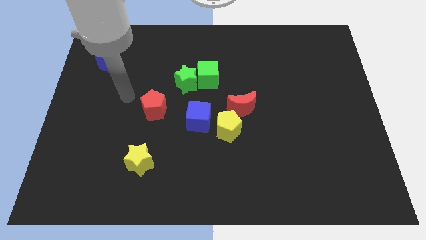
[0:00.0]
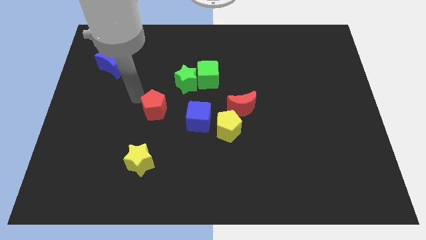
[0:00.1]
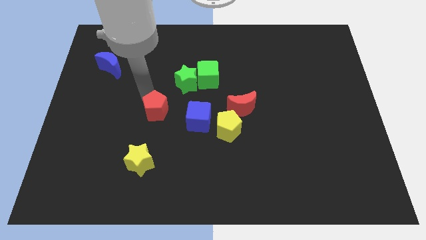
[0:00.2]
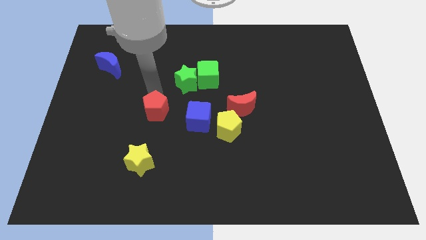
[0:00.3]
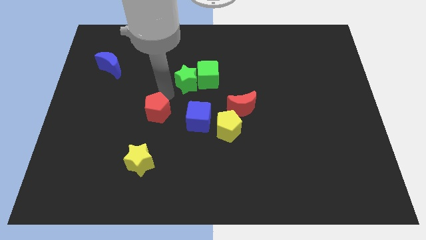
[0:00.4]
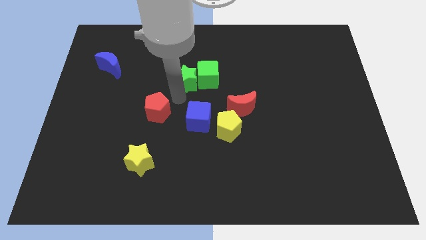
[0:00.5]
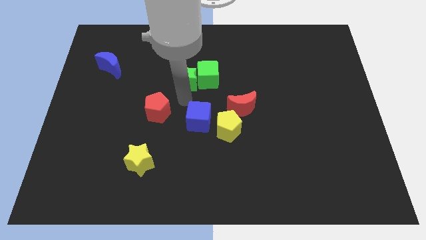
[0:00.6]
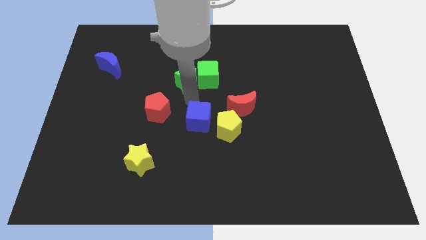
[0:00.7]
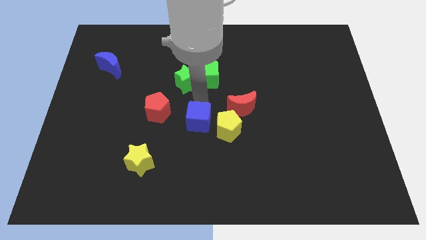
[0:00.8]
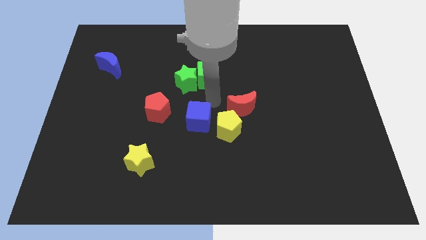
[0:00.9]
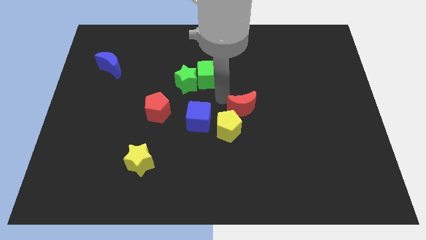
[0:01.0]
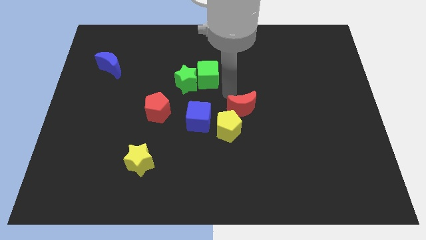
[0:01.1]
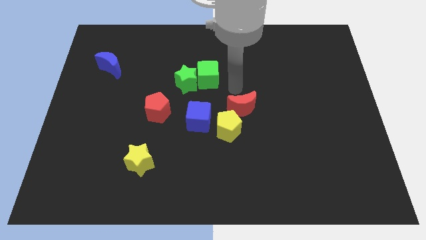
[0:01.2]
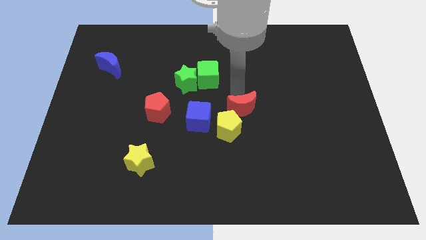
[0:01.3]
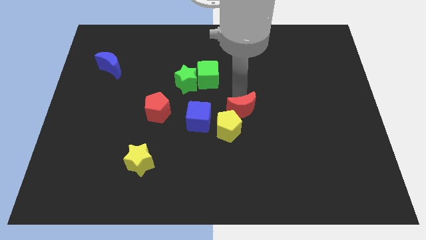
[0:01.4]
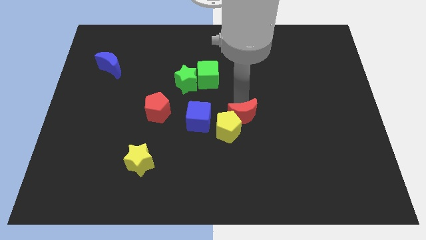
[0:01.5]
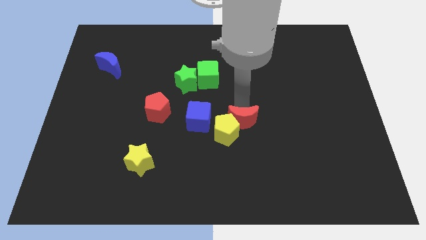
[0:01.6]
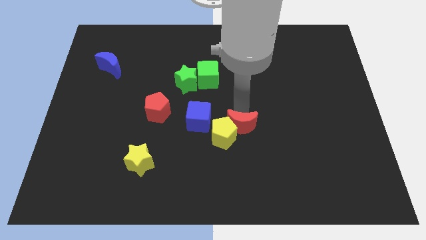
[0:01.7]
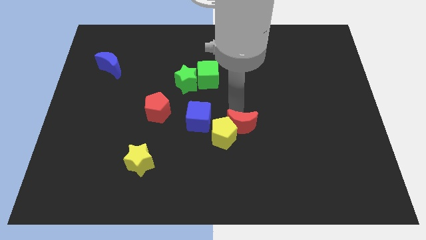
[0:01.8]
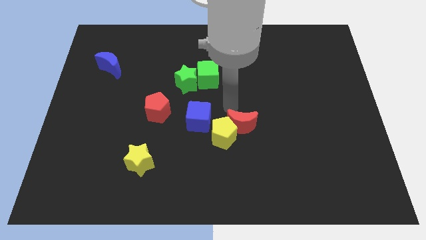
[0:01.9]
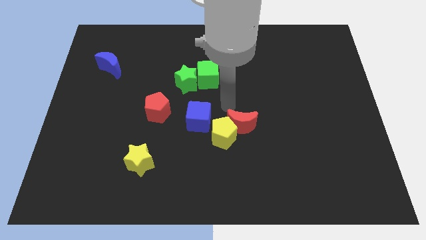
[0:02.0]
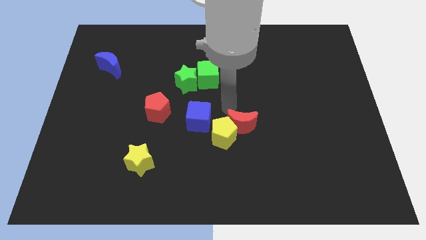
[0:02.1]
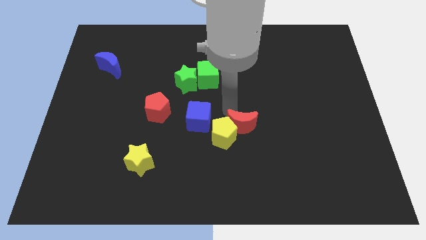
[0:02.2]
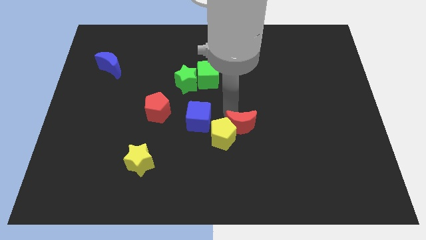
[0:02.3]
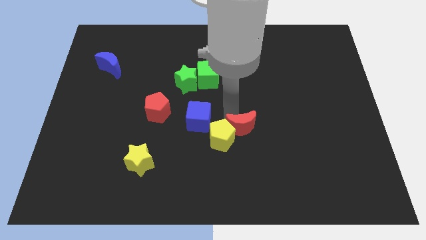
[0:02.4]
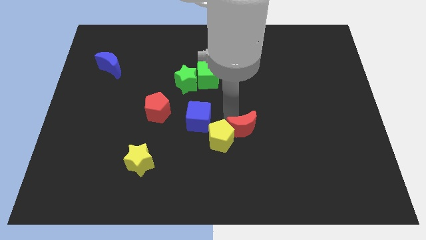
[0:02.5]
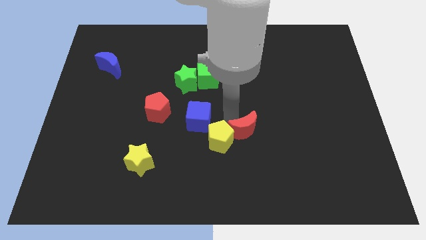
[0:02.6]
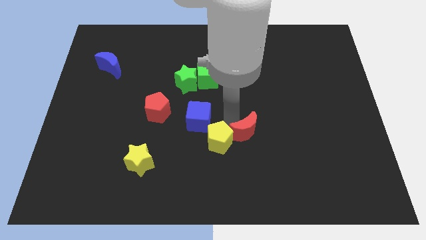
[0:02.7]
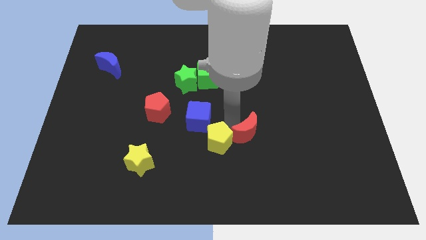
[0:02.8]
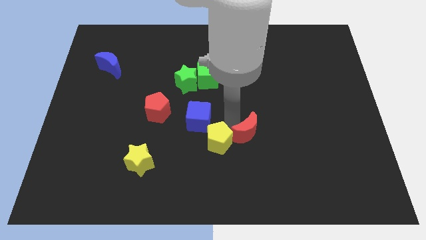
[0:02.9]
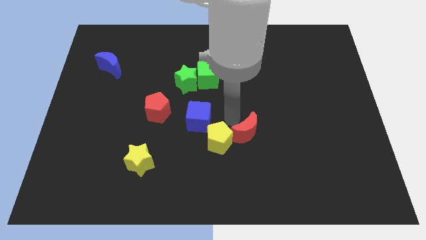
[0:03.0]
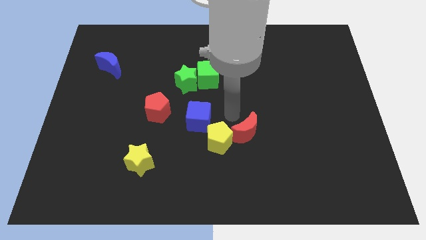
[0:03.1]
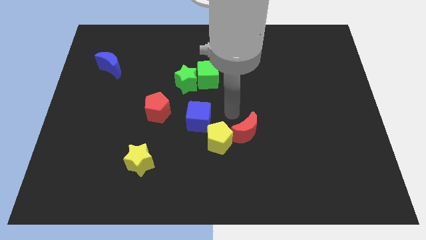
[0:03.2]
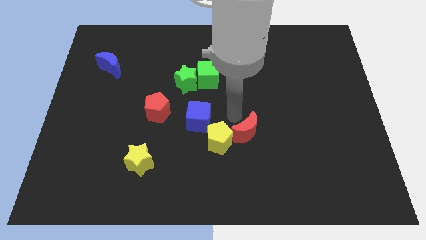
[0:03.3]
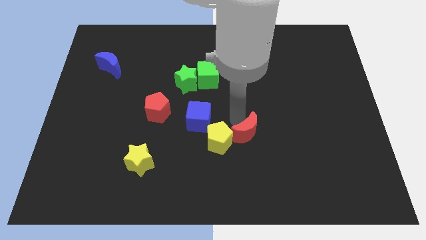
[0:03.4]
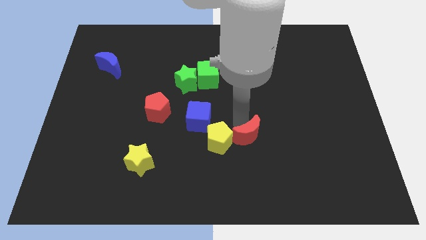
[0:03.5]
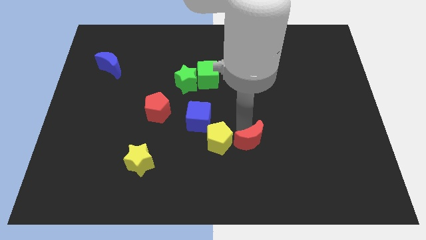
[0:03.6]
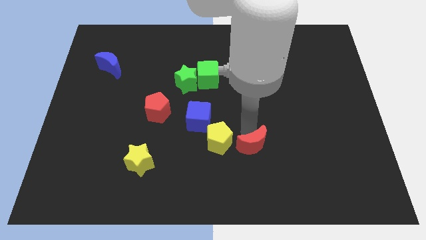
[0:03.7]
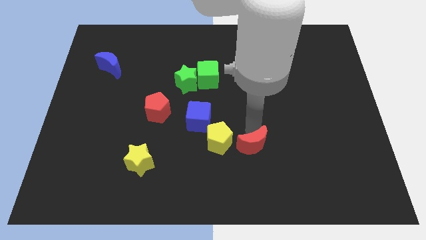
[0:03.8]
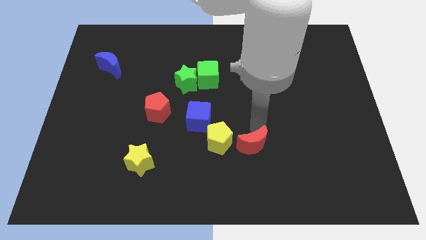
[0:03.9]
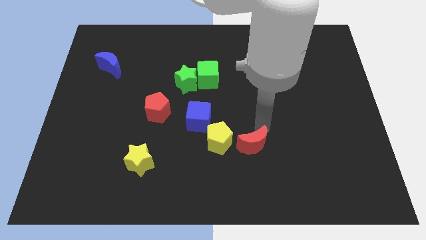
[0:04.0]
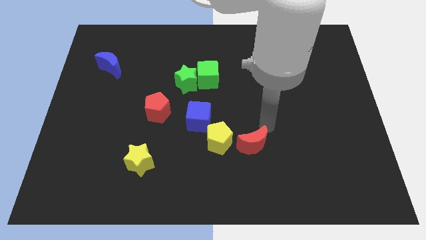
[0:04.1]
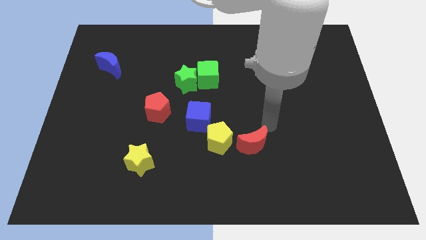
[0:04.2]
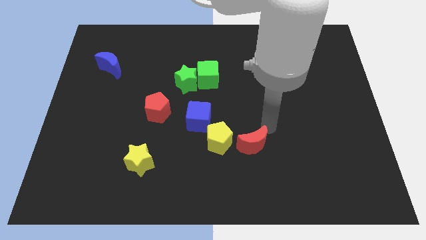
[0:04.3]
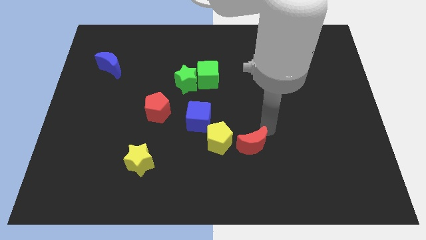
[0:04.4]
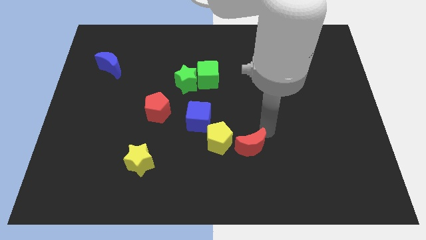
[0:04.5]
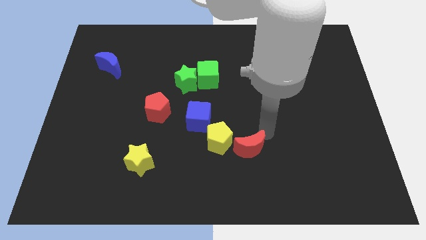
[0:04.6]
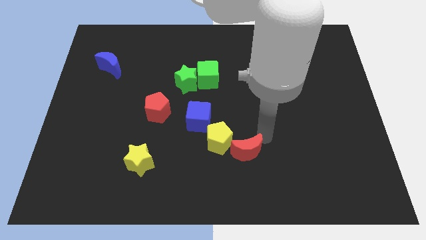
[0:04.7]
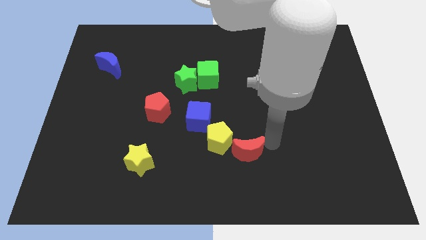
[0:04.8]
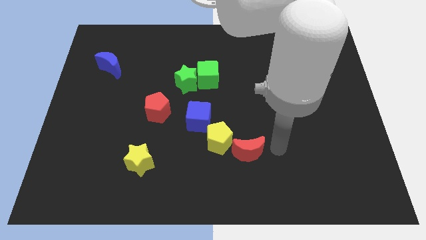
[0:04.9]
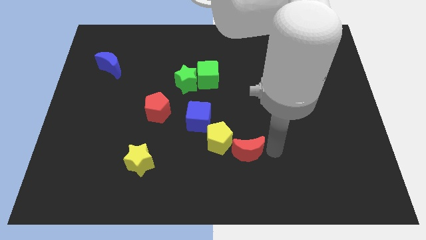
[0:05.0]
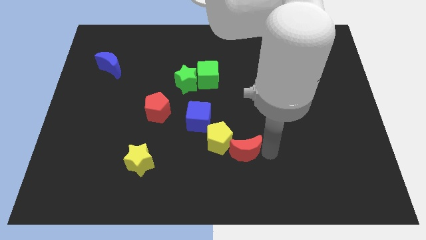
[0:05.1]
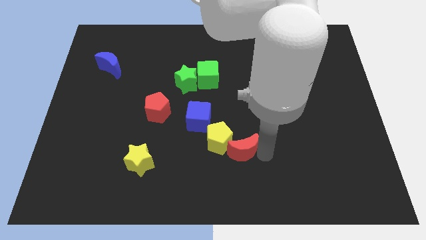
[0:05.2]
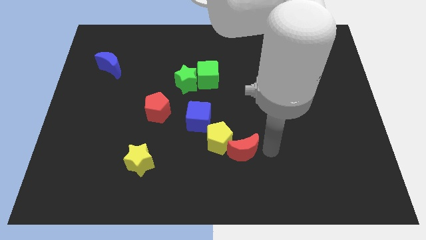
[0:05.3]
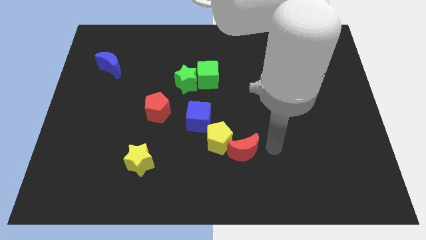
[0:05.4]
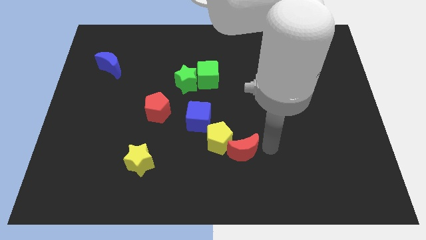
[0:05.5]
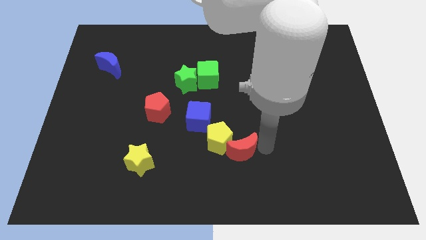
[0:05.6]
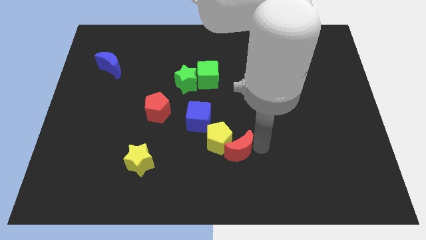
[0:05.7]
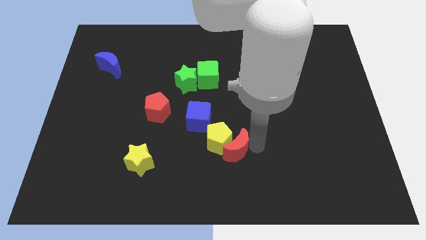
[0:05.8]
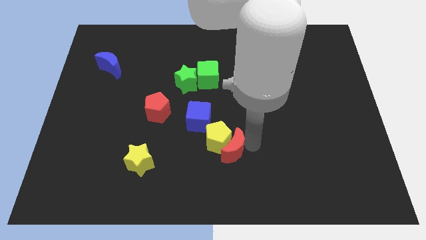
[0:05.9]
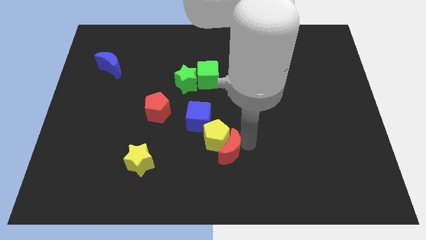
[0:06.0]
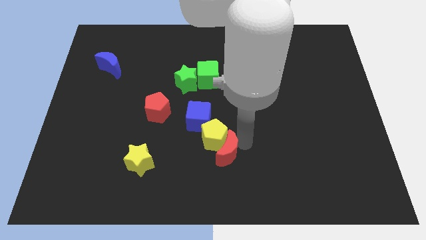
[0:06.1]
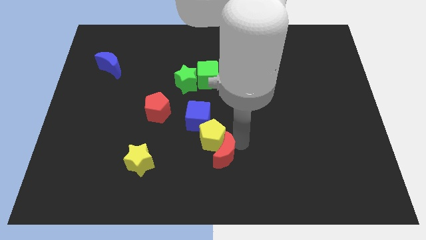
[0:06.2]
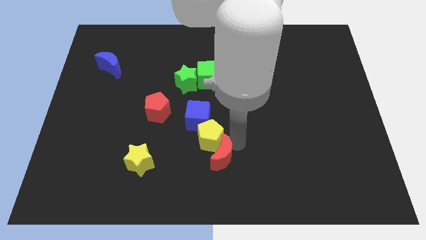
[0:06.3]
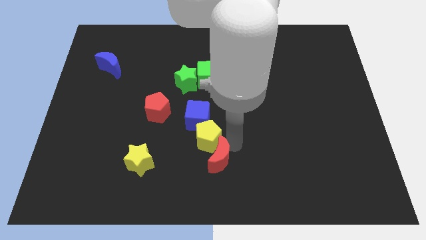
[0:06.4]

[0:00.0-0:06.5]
move the red moon below the blue cube

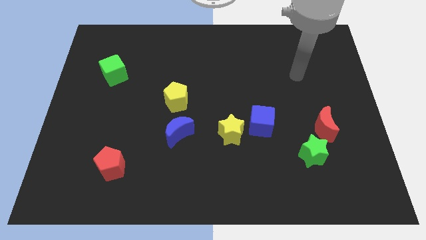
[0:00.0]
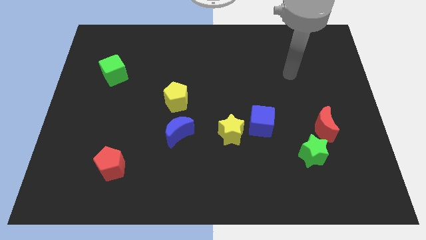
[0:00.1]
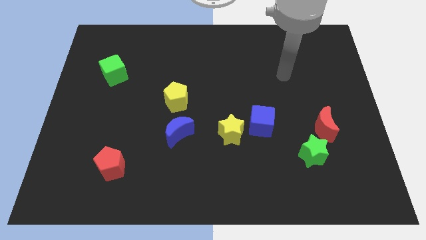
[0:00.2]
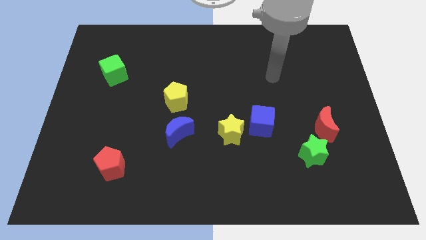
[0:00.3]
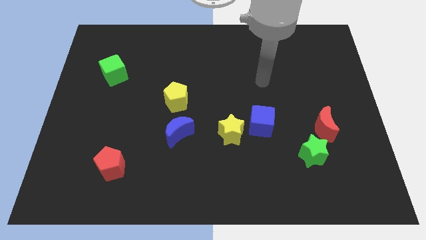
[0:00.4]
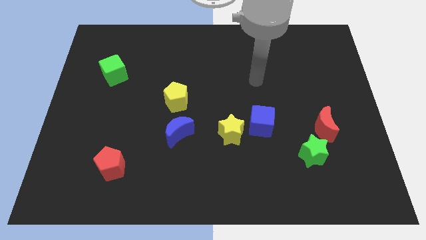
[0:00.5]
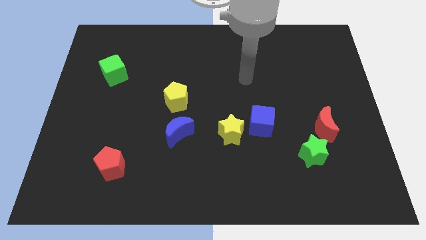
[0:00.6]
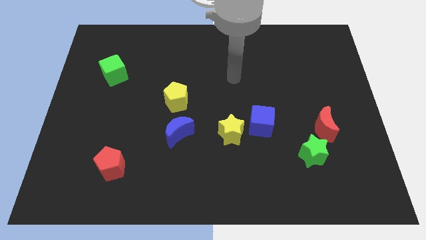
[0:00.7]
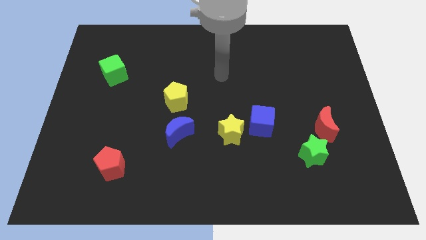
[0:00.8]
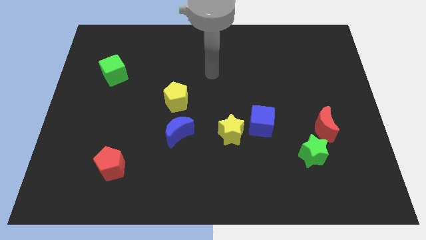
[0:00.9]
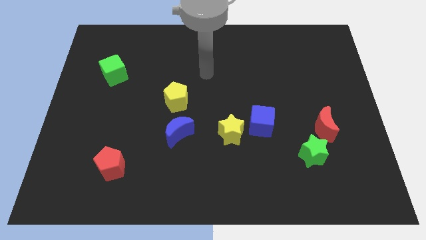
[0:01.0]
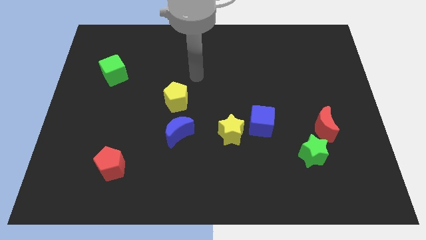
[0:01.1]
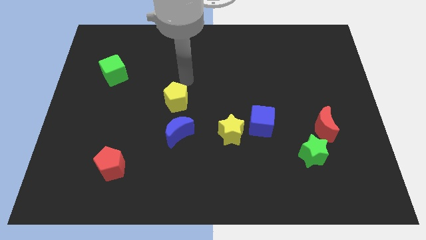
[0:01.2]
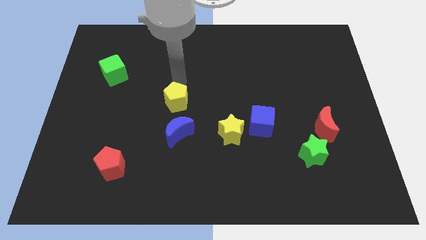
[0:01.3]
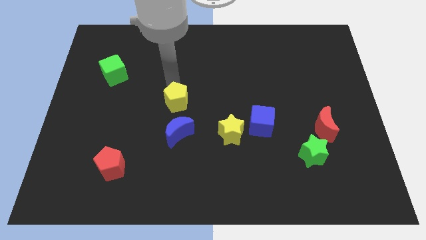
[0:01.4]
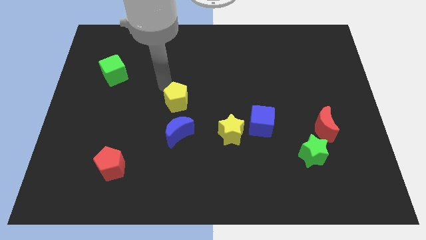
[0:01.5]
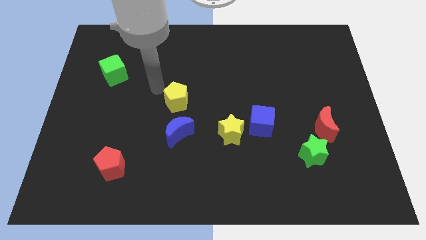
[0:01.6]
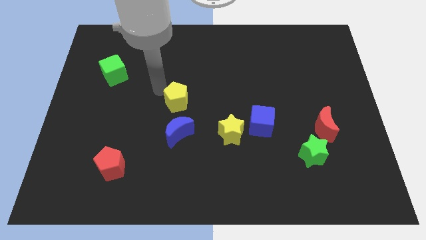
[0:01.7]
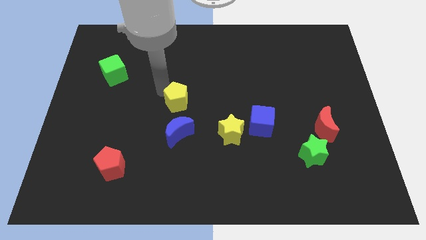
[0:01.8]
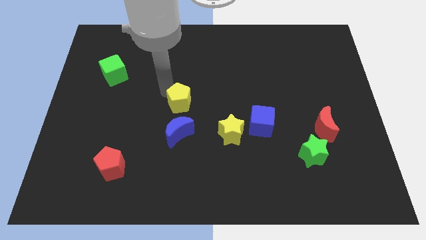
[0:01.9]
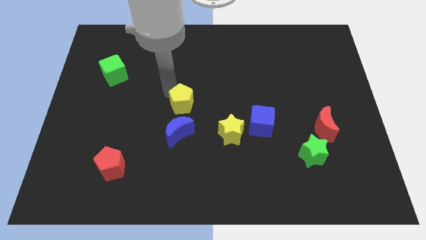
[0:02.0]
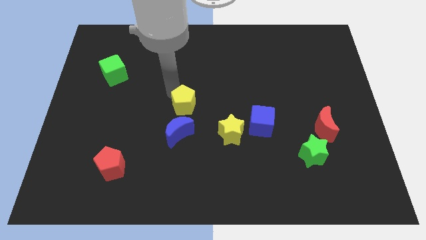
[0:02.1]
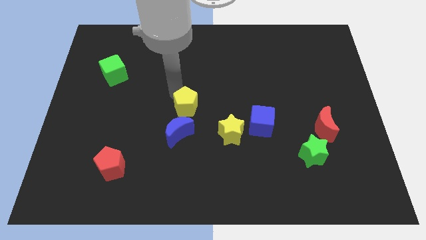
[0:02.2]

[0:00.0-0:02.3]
slide the yellow pentagon to the top left side of the yellow star

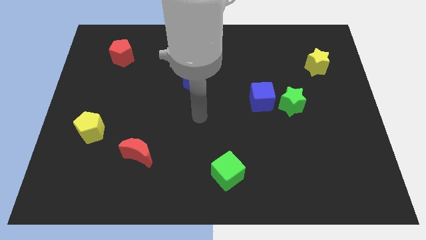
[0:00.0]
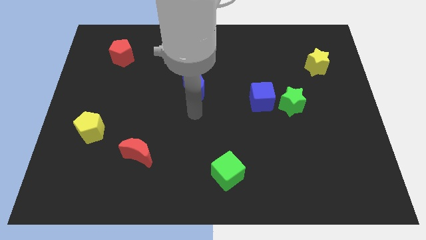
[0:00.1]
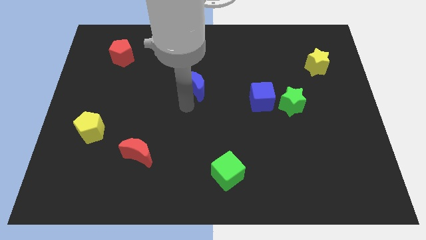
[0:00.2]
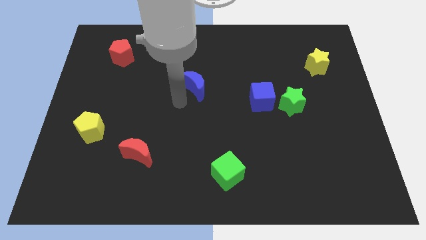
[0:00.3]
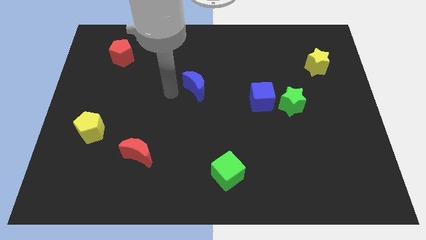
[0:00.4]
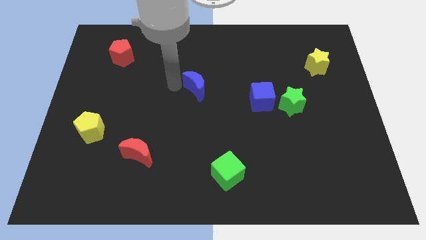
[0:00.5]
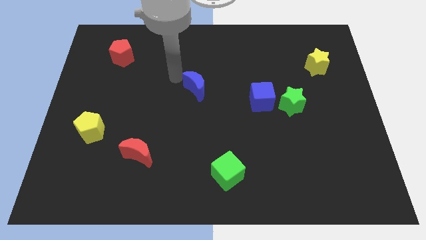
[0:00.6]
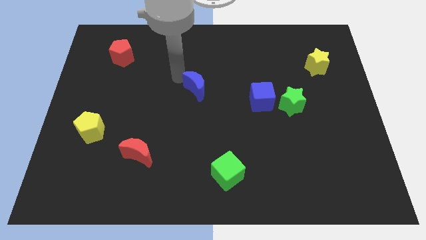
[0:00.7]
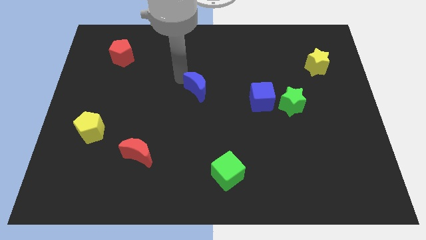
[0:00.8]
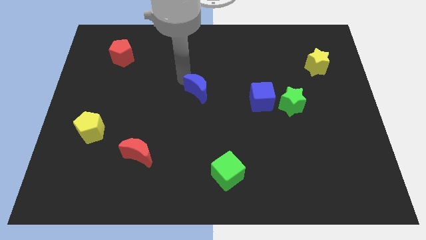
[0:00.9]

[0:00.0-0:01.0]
push the blue moon to the left of the blue cube
